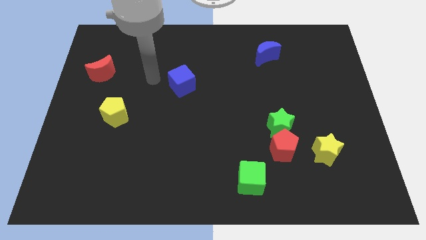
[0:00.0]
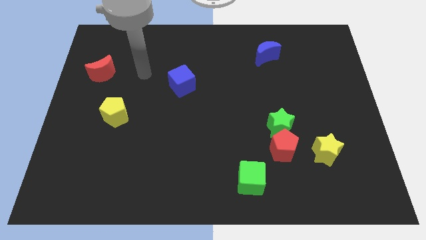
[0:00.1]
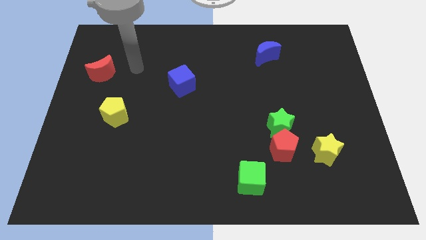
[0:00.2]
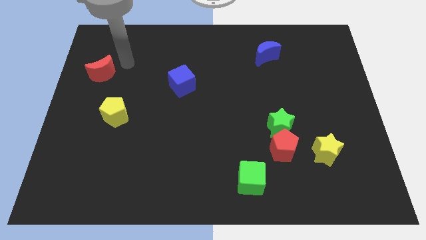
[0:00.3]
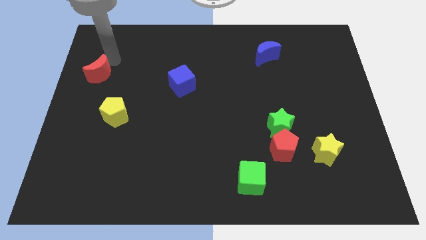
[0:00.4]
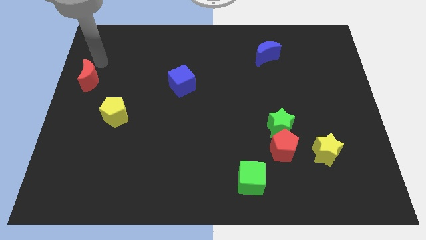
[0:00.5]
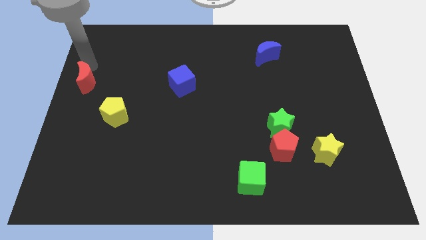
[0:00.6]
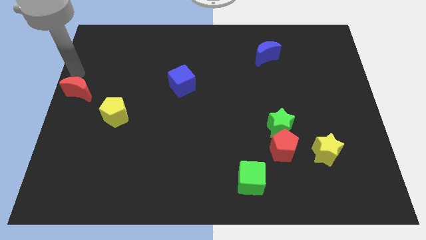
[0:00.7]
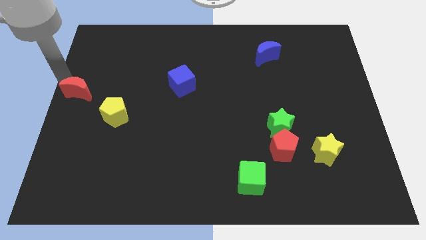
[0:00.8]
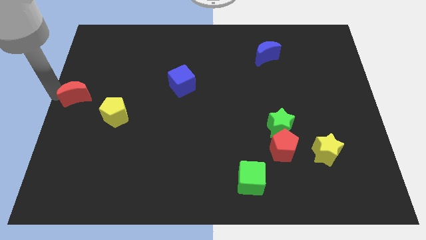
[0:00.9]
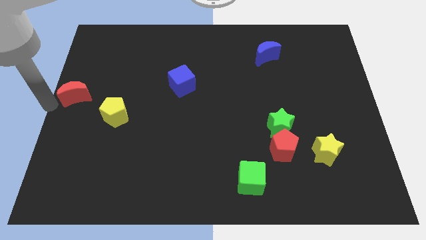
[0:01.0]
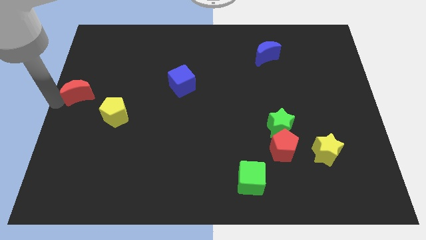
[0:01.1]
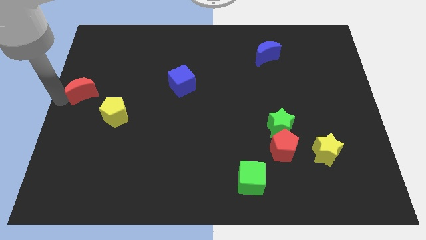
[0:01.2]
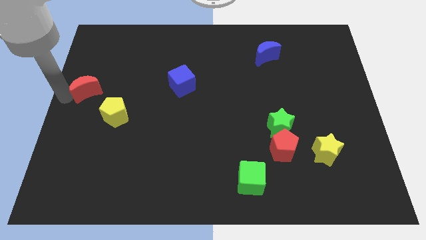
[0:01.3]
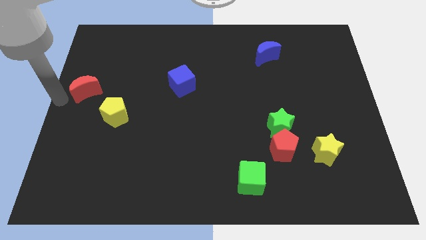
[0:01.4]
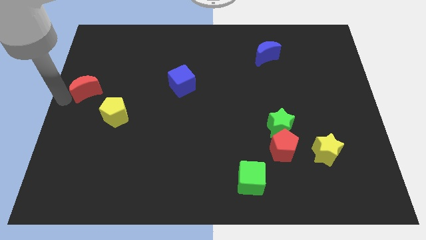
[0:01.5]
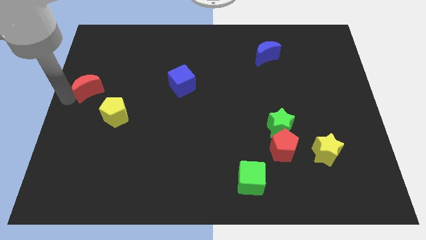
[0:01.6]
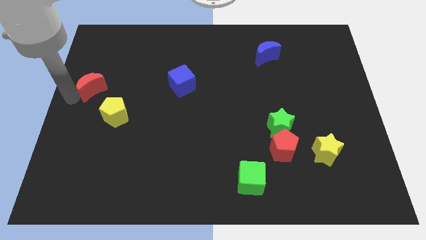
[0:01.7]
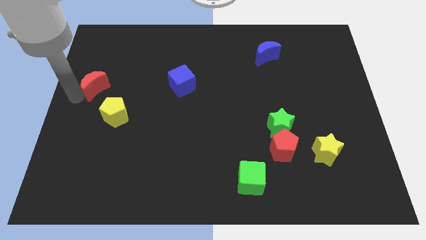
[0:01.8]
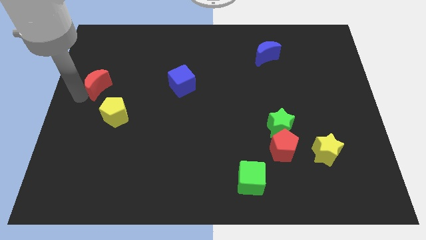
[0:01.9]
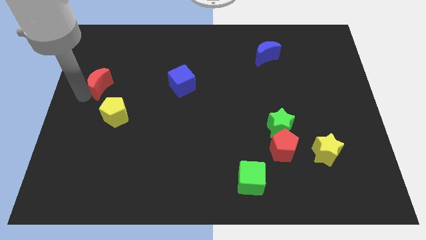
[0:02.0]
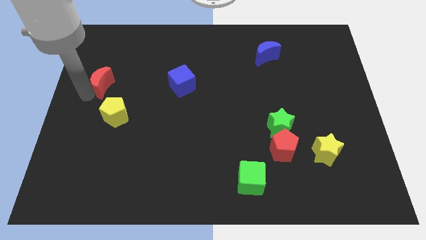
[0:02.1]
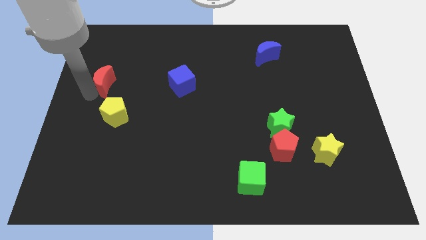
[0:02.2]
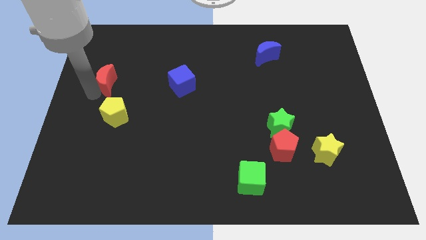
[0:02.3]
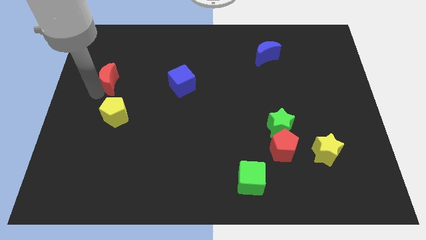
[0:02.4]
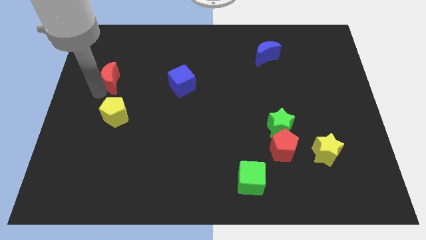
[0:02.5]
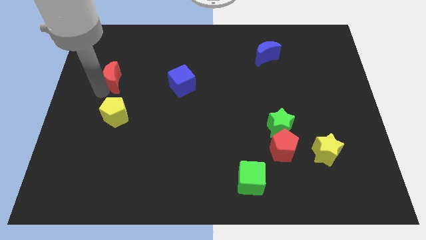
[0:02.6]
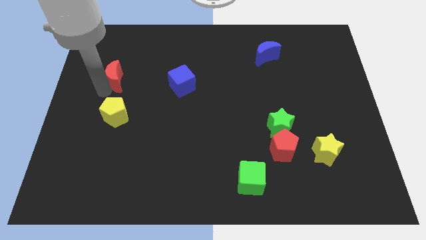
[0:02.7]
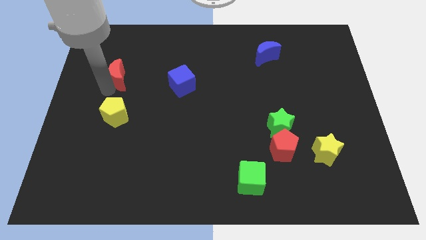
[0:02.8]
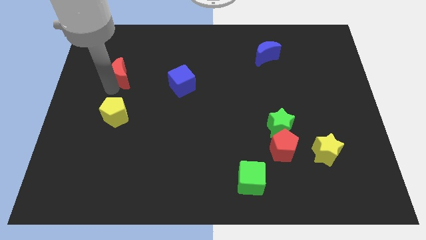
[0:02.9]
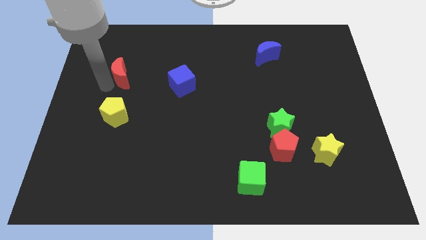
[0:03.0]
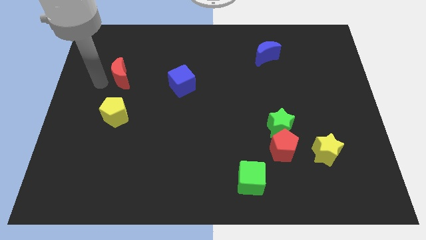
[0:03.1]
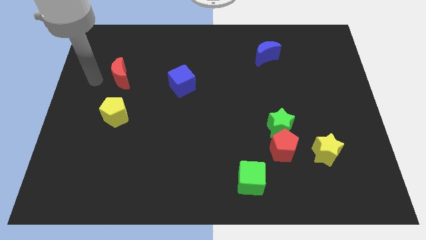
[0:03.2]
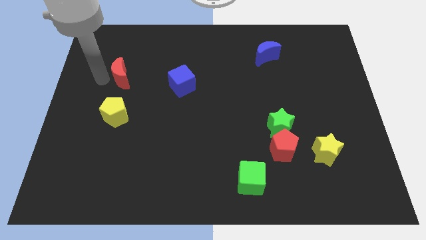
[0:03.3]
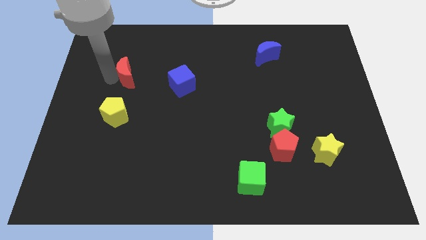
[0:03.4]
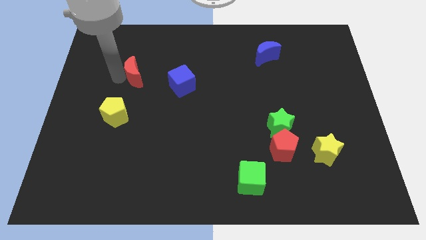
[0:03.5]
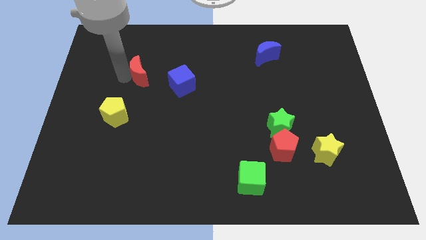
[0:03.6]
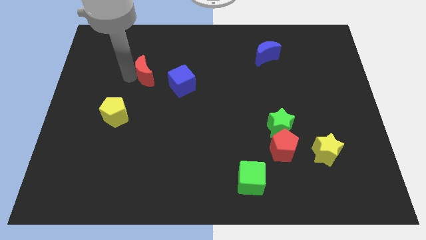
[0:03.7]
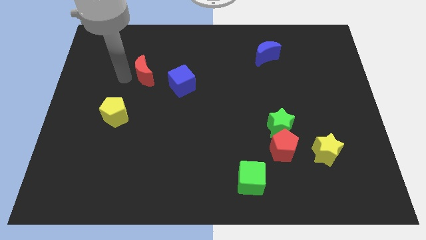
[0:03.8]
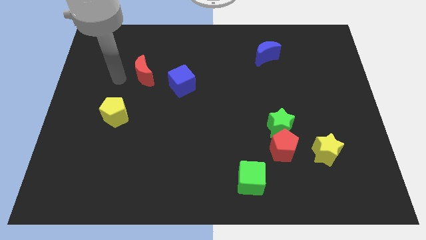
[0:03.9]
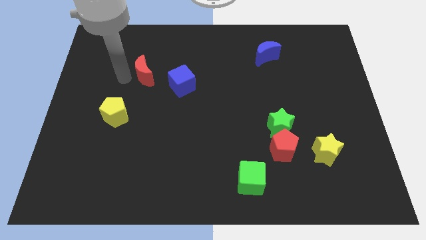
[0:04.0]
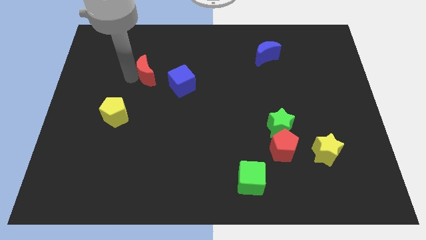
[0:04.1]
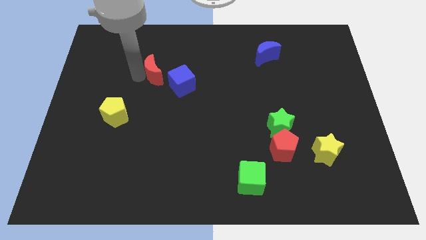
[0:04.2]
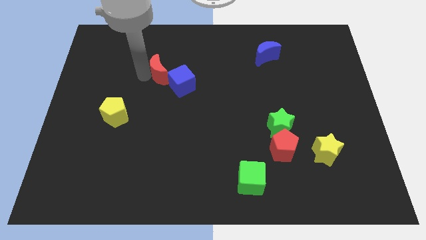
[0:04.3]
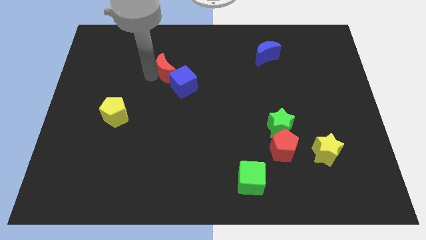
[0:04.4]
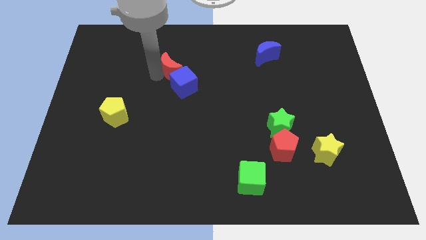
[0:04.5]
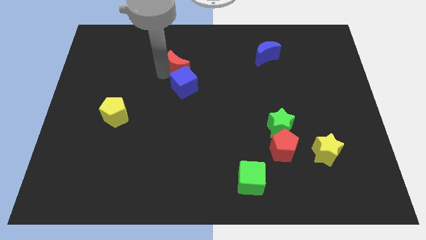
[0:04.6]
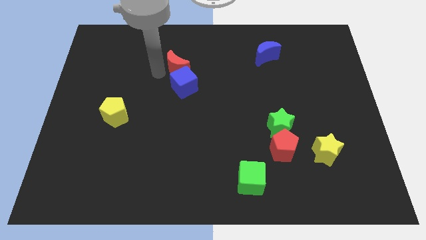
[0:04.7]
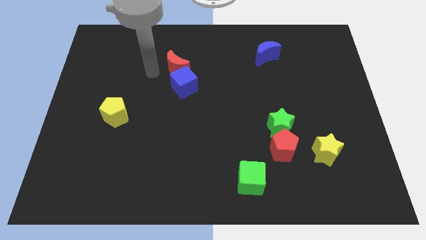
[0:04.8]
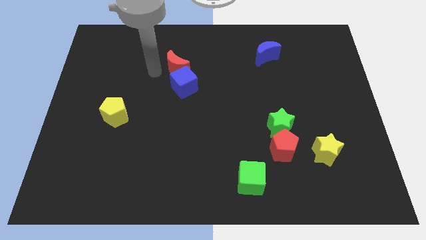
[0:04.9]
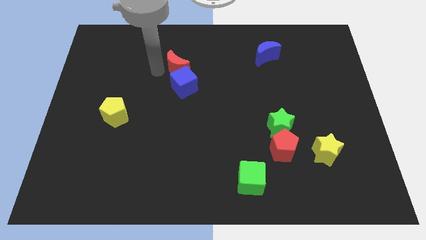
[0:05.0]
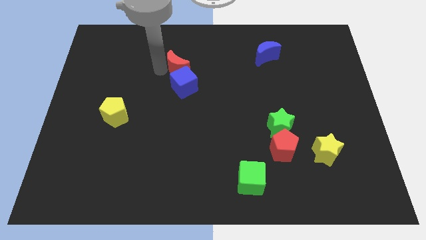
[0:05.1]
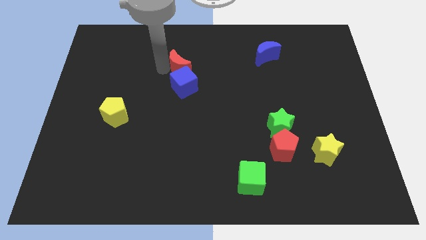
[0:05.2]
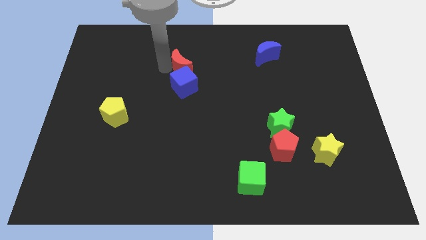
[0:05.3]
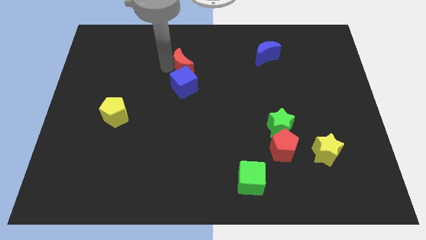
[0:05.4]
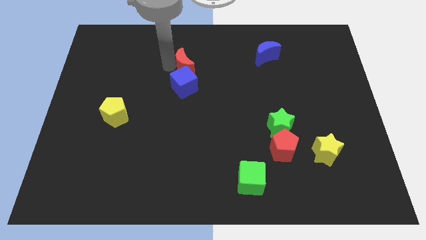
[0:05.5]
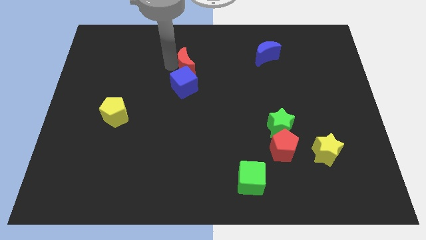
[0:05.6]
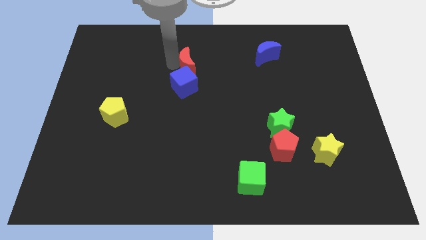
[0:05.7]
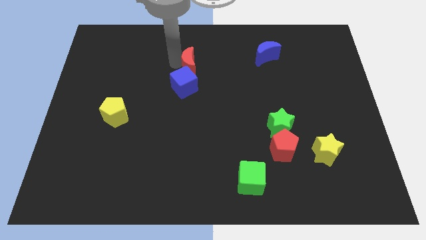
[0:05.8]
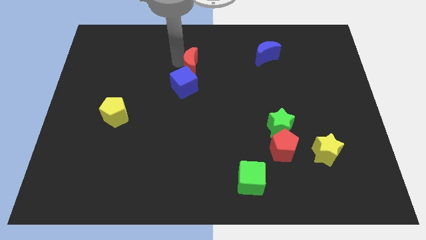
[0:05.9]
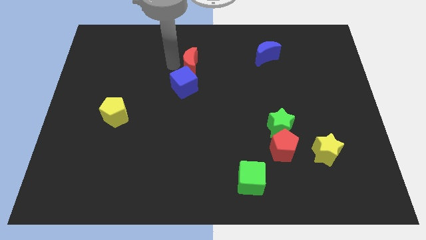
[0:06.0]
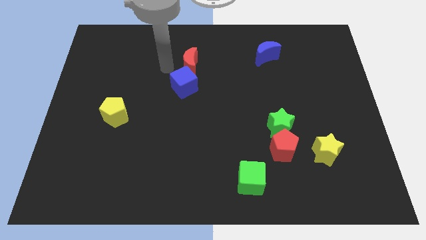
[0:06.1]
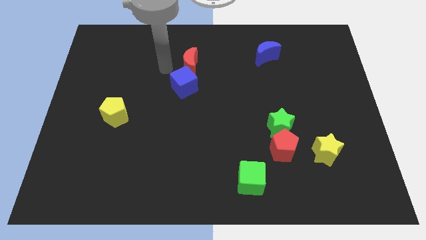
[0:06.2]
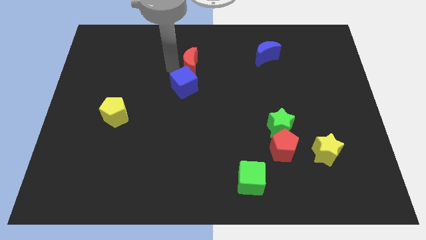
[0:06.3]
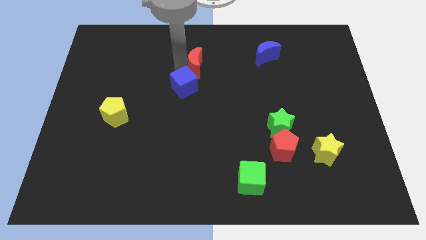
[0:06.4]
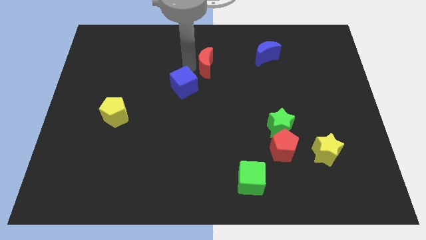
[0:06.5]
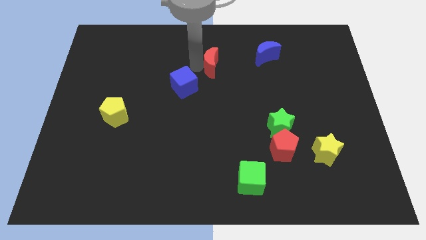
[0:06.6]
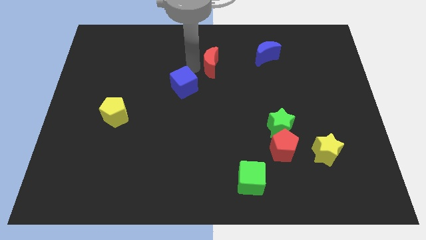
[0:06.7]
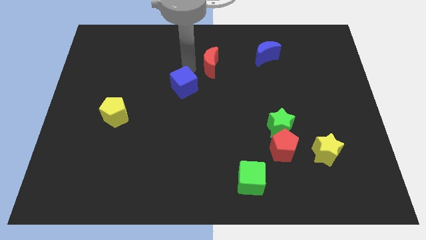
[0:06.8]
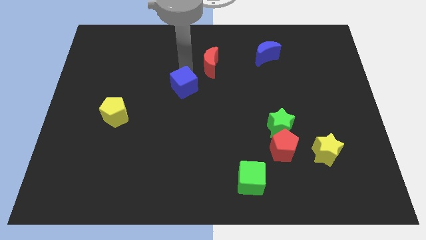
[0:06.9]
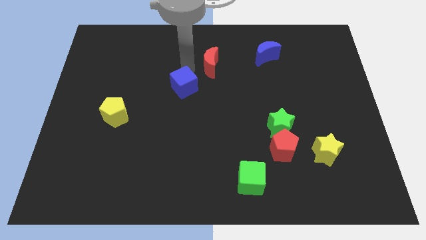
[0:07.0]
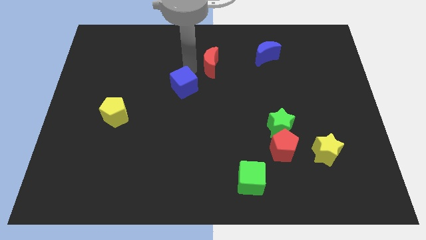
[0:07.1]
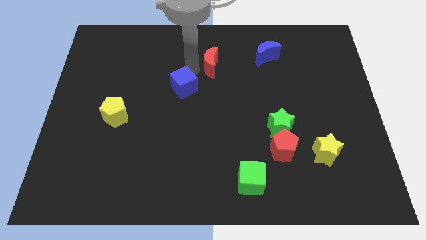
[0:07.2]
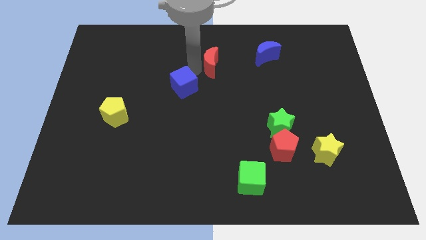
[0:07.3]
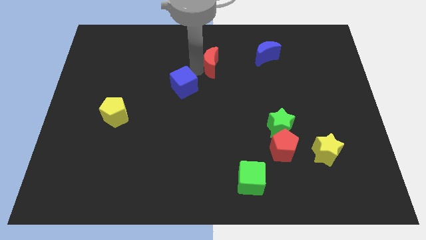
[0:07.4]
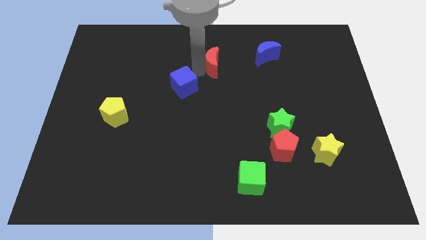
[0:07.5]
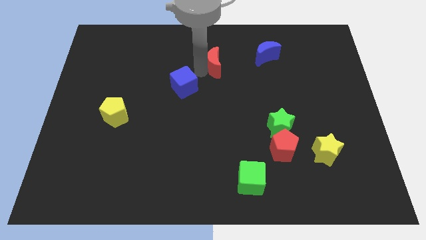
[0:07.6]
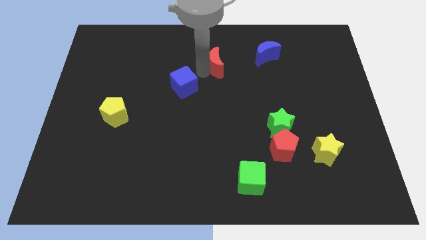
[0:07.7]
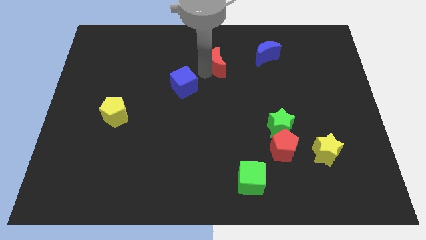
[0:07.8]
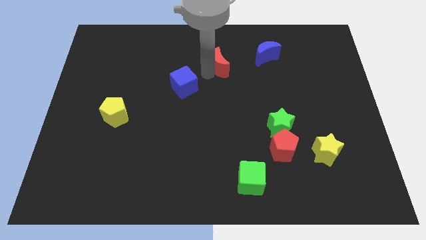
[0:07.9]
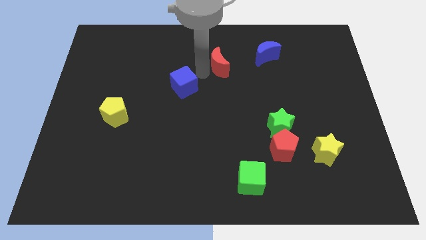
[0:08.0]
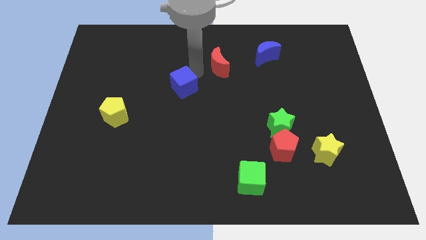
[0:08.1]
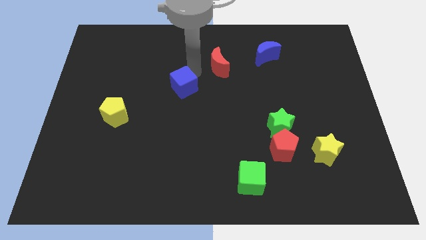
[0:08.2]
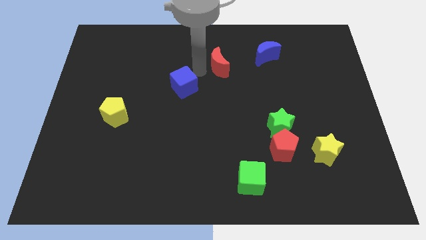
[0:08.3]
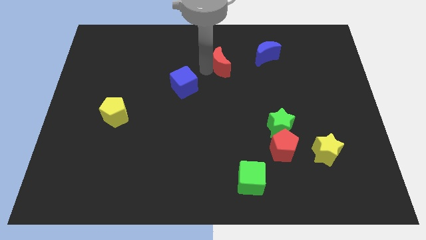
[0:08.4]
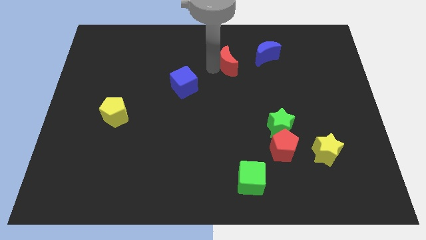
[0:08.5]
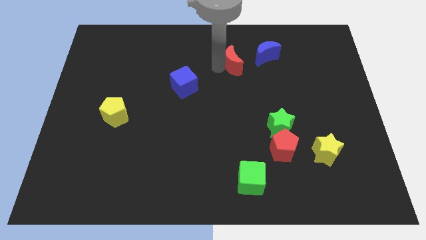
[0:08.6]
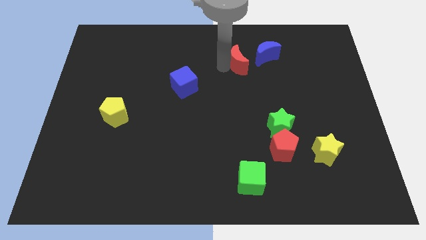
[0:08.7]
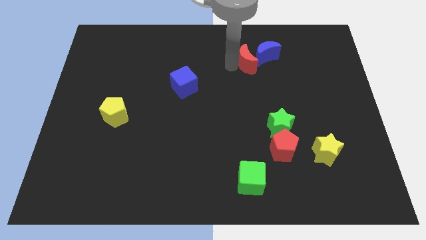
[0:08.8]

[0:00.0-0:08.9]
slide the red moon to the blue moon
